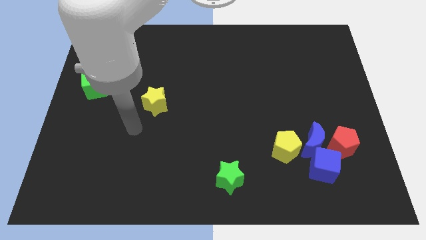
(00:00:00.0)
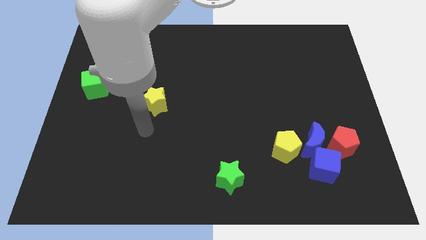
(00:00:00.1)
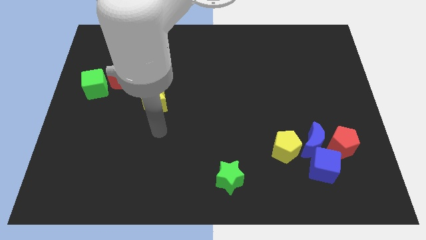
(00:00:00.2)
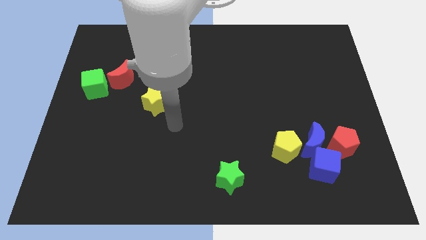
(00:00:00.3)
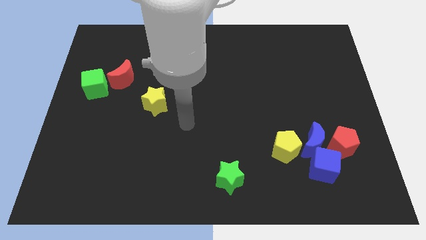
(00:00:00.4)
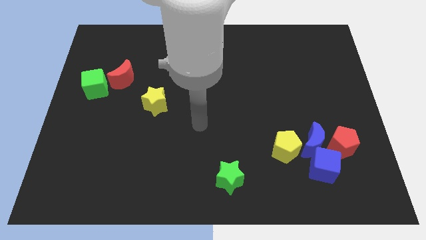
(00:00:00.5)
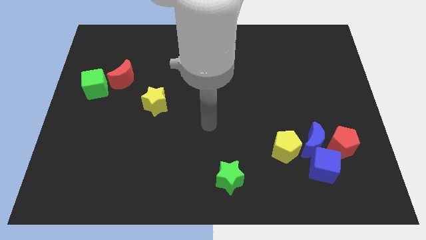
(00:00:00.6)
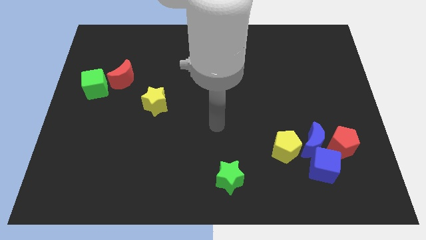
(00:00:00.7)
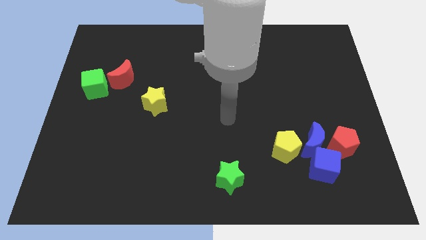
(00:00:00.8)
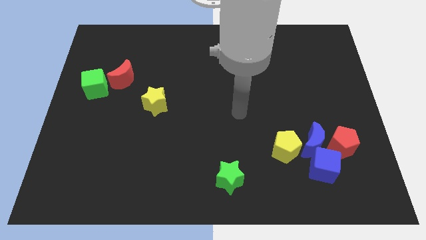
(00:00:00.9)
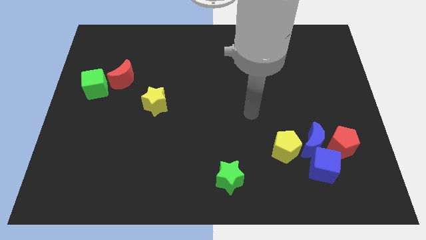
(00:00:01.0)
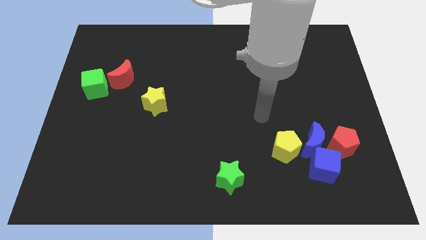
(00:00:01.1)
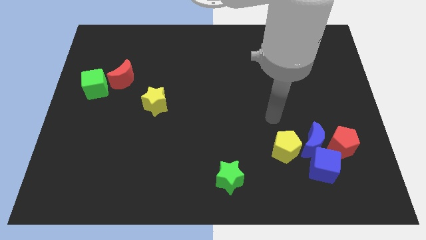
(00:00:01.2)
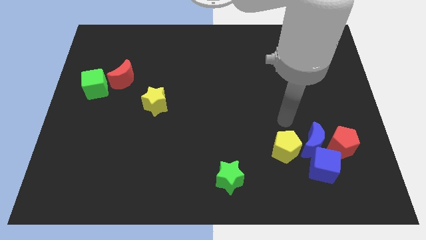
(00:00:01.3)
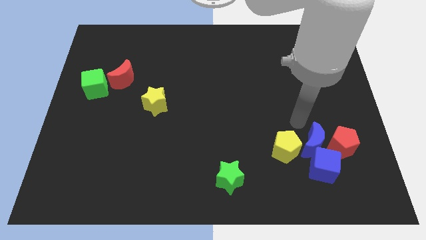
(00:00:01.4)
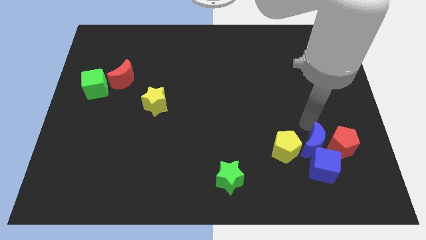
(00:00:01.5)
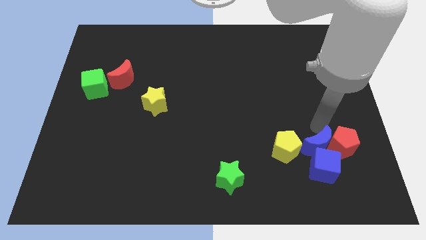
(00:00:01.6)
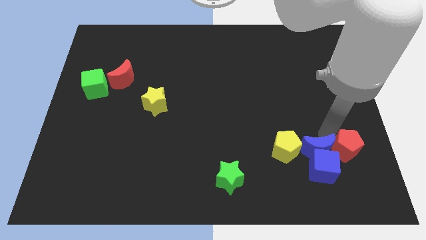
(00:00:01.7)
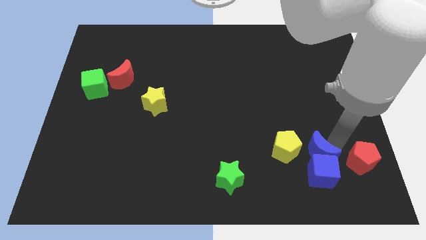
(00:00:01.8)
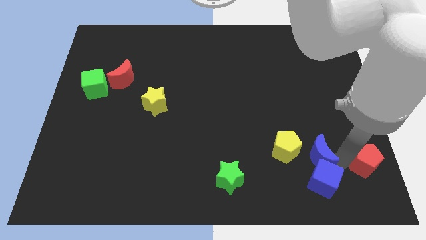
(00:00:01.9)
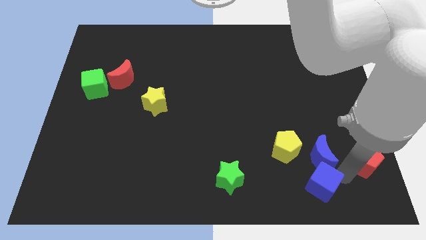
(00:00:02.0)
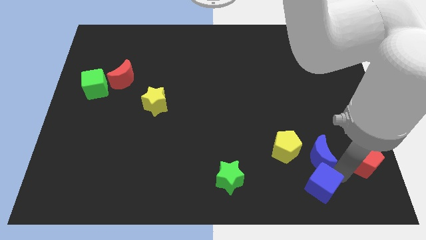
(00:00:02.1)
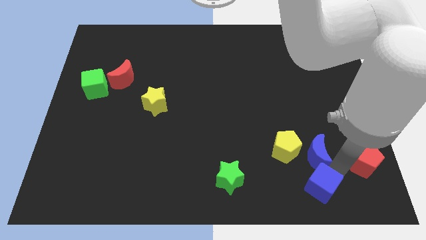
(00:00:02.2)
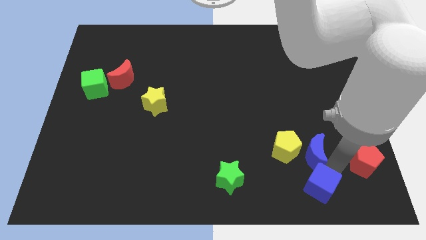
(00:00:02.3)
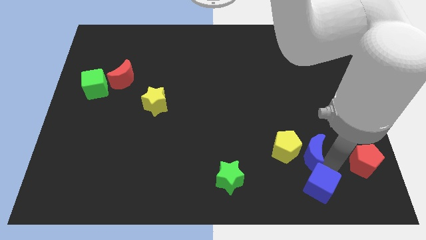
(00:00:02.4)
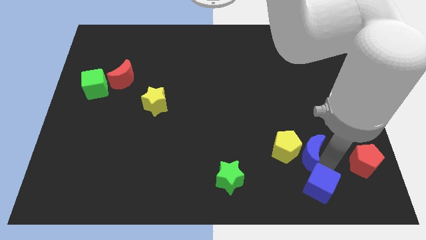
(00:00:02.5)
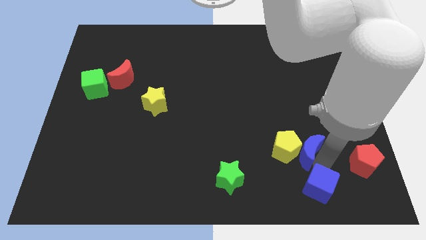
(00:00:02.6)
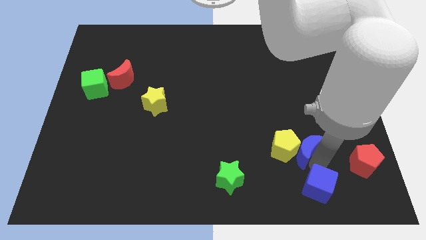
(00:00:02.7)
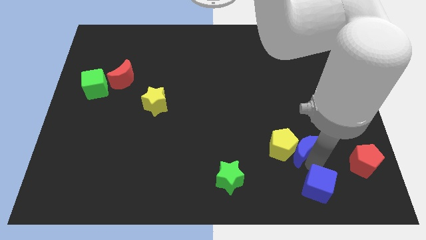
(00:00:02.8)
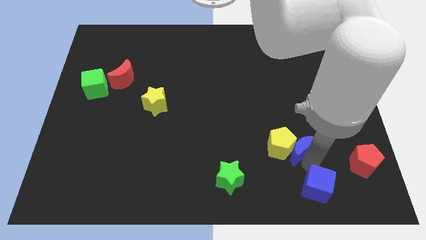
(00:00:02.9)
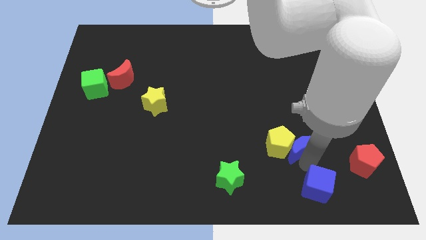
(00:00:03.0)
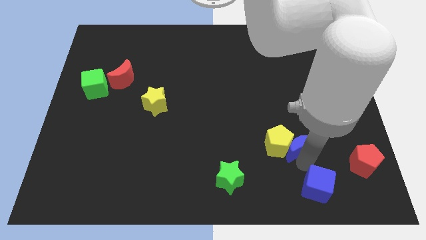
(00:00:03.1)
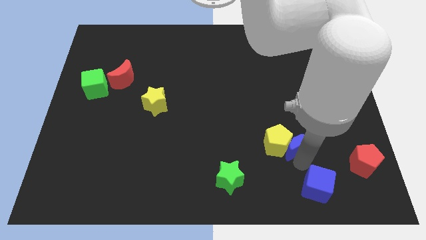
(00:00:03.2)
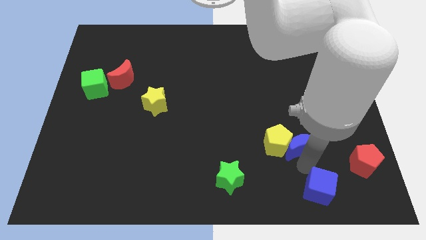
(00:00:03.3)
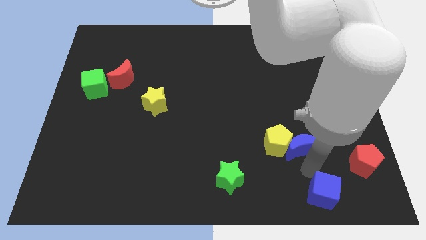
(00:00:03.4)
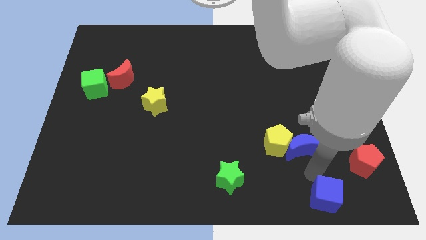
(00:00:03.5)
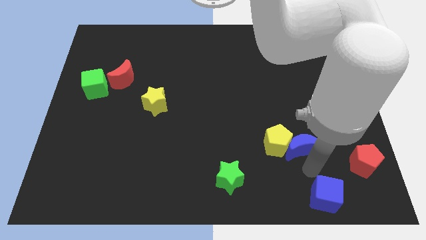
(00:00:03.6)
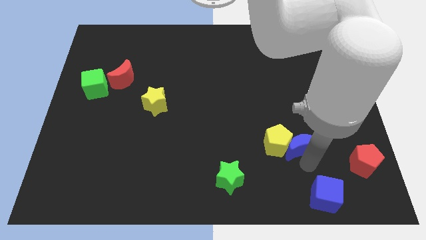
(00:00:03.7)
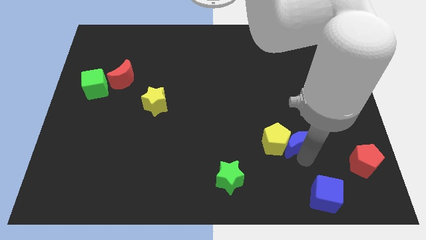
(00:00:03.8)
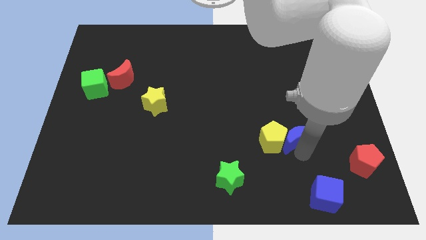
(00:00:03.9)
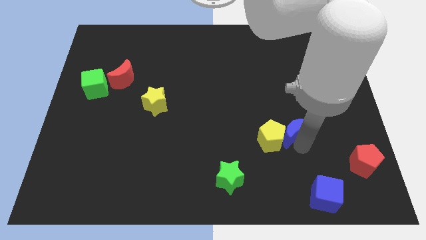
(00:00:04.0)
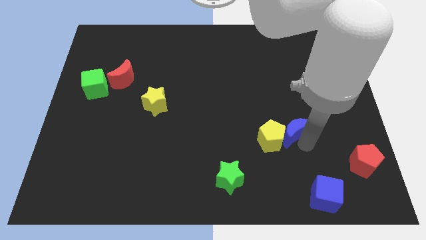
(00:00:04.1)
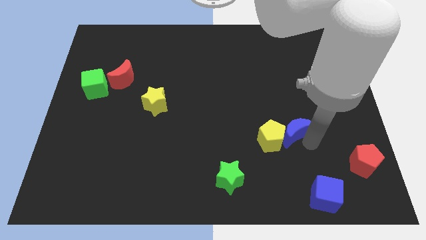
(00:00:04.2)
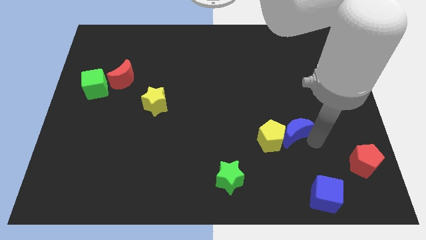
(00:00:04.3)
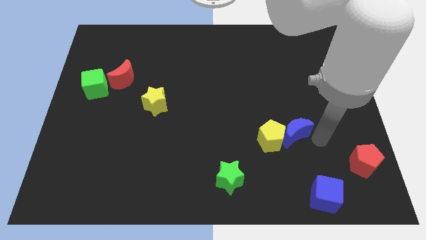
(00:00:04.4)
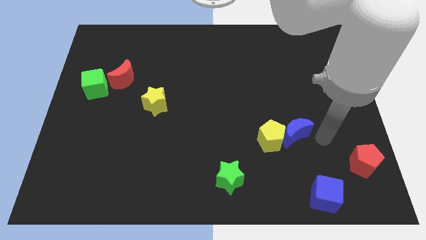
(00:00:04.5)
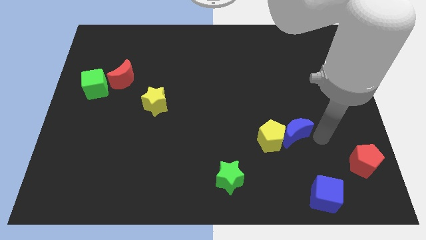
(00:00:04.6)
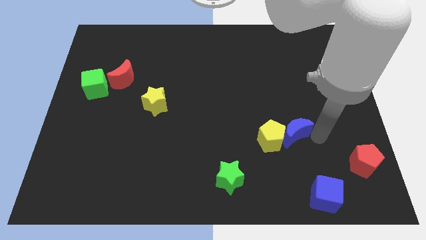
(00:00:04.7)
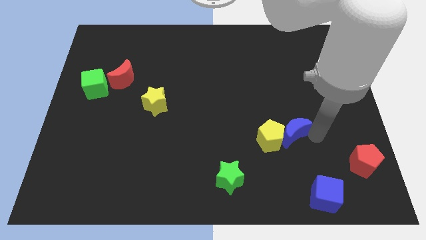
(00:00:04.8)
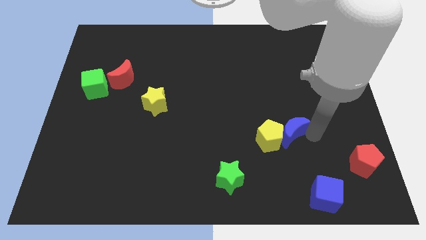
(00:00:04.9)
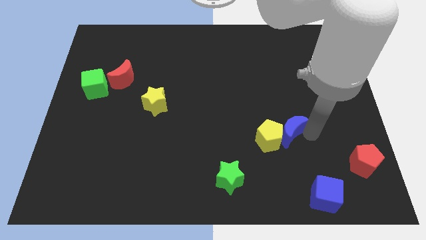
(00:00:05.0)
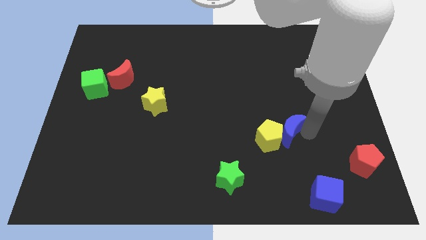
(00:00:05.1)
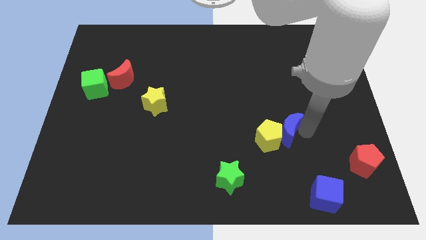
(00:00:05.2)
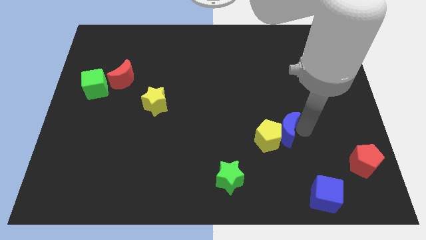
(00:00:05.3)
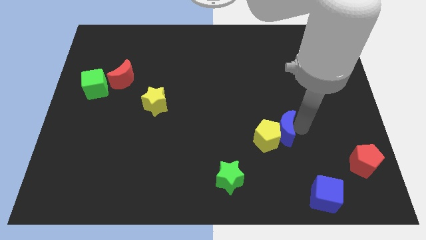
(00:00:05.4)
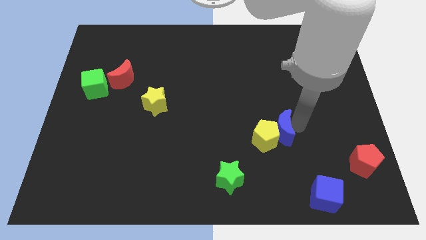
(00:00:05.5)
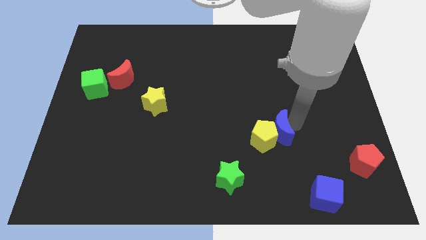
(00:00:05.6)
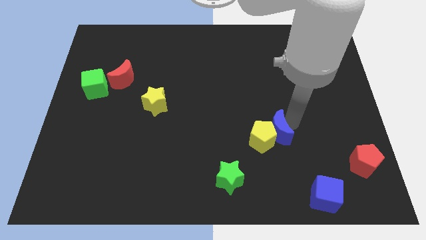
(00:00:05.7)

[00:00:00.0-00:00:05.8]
slightly push the blue moon left

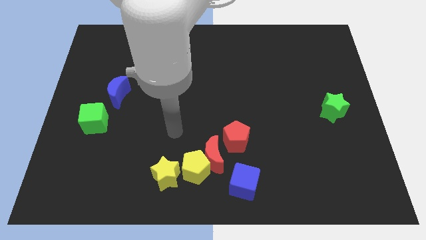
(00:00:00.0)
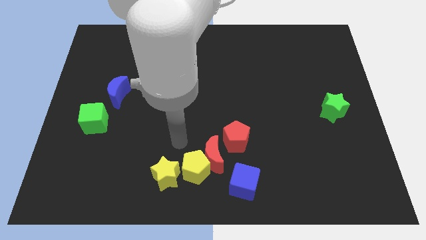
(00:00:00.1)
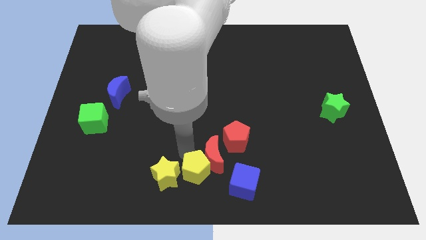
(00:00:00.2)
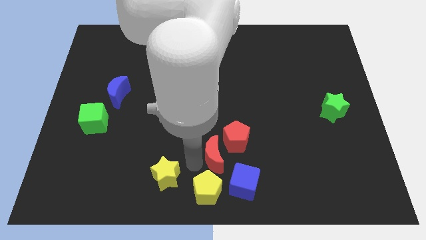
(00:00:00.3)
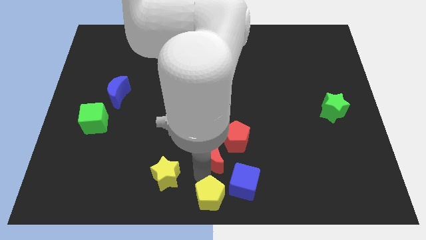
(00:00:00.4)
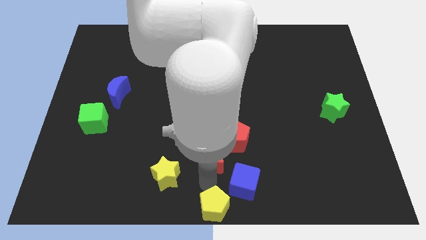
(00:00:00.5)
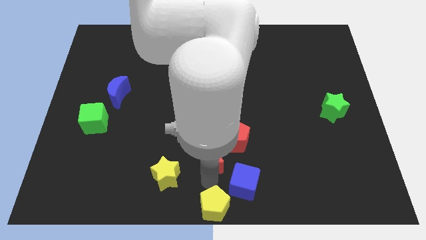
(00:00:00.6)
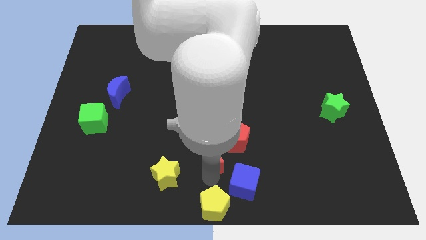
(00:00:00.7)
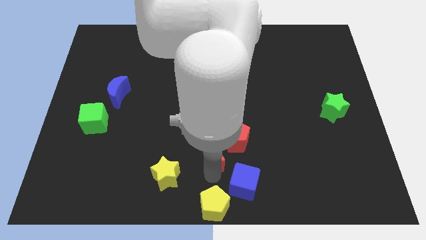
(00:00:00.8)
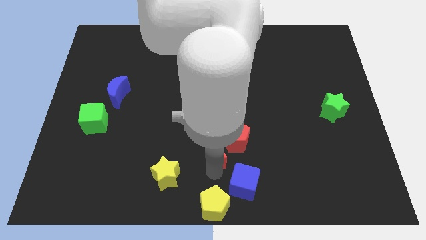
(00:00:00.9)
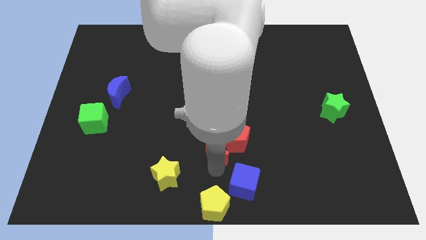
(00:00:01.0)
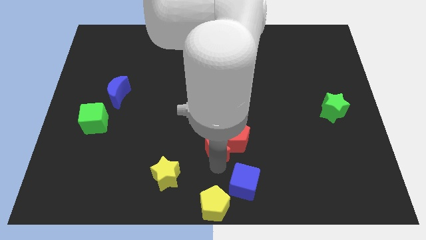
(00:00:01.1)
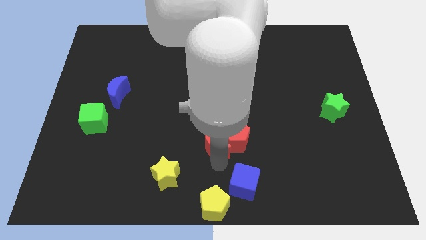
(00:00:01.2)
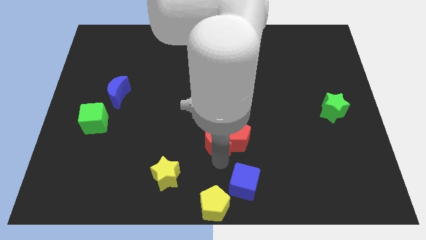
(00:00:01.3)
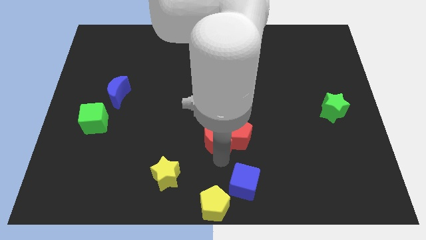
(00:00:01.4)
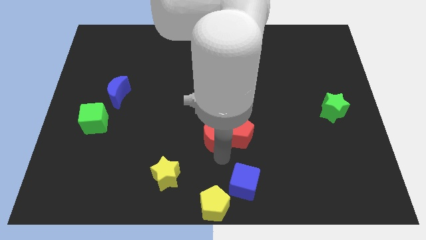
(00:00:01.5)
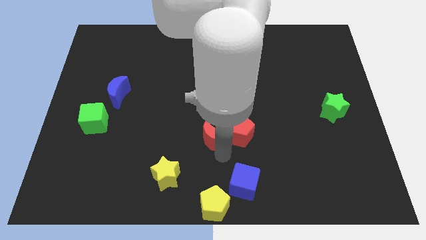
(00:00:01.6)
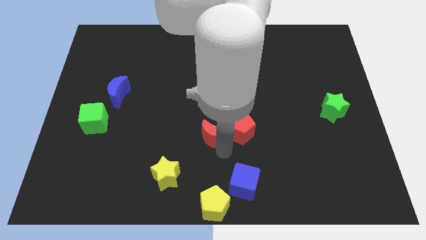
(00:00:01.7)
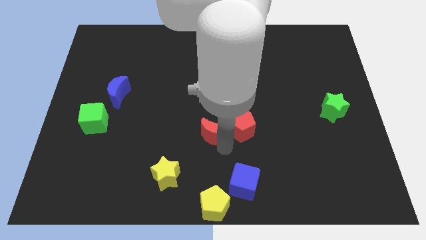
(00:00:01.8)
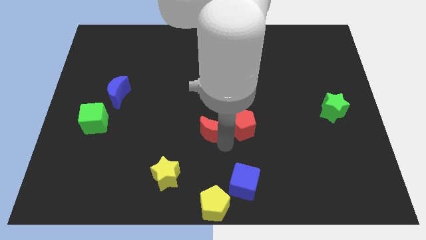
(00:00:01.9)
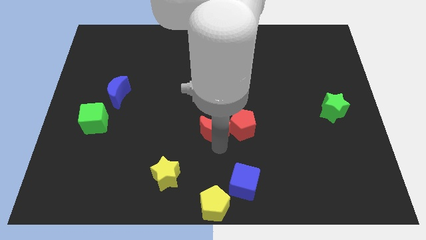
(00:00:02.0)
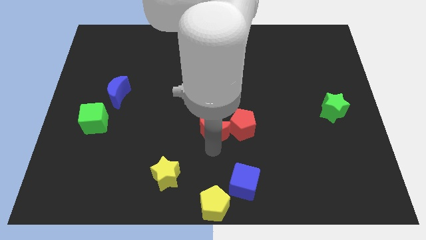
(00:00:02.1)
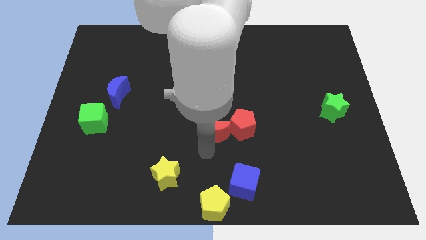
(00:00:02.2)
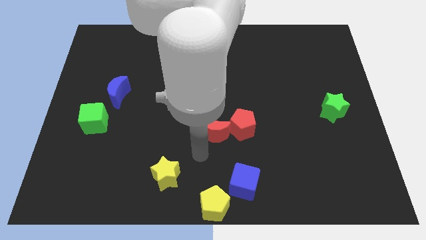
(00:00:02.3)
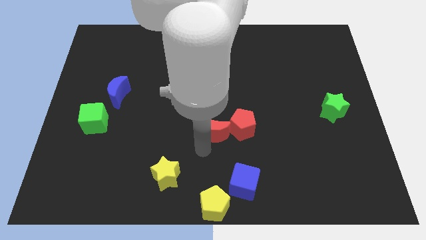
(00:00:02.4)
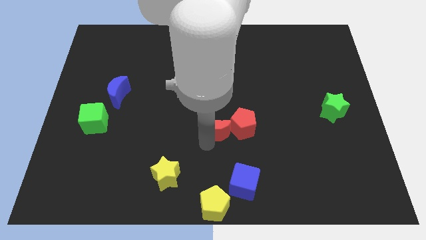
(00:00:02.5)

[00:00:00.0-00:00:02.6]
move the red moon up somewhat
